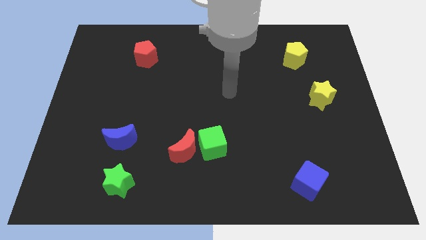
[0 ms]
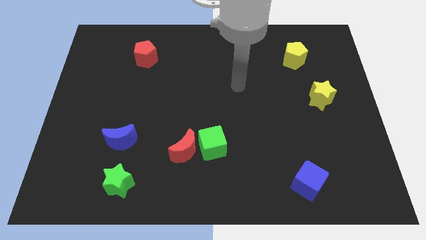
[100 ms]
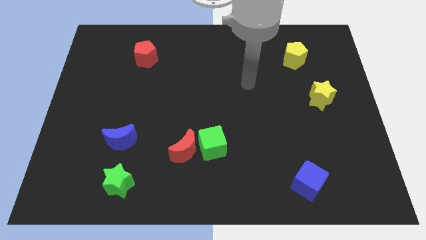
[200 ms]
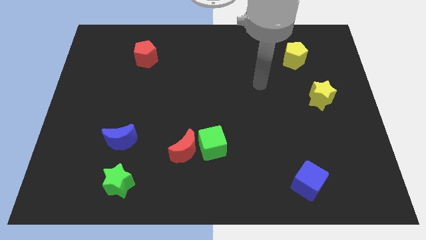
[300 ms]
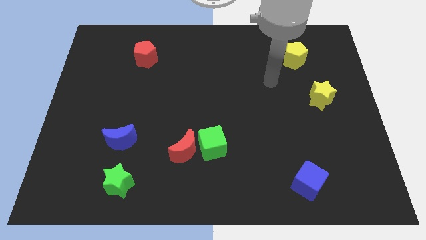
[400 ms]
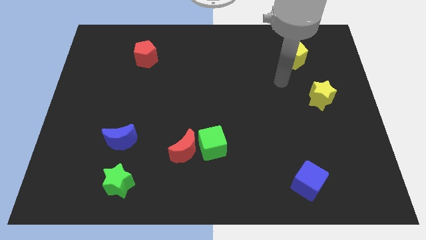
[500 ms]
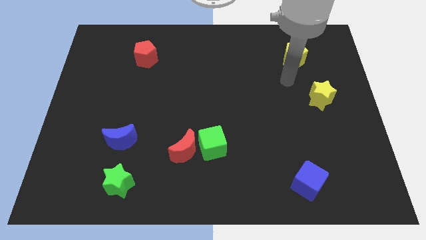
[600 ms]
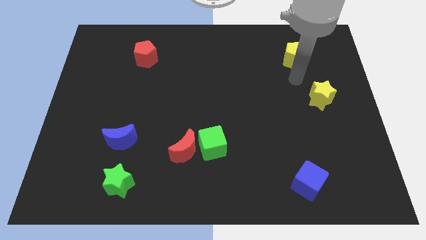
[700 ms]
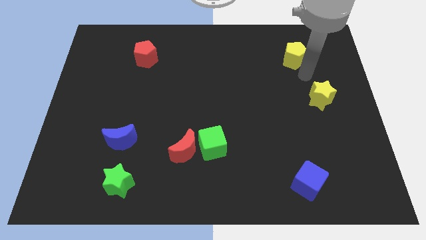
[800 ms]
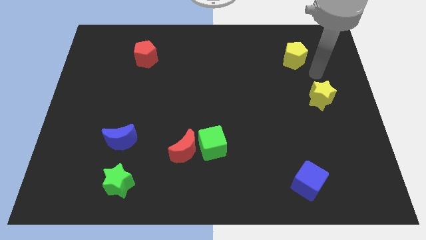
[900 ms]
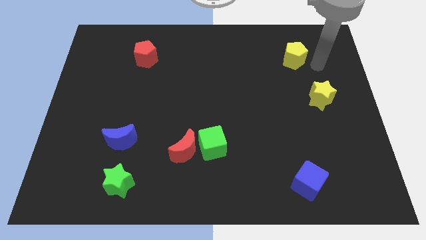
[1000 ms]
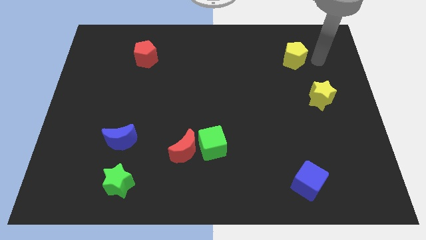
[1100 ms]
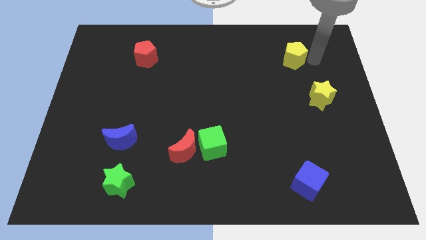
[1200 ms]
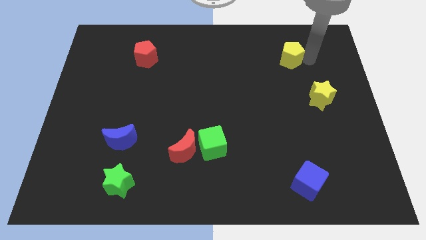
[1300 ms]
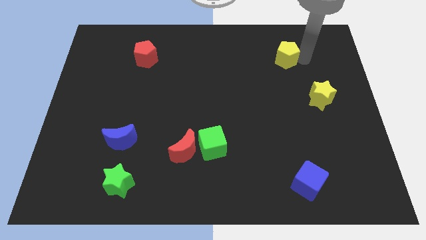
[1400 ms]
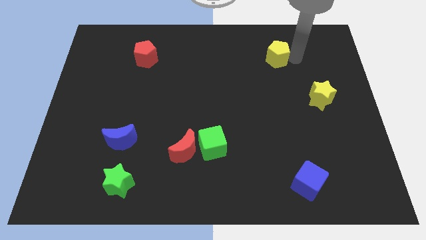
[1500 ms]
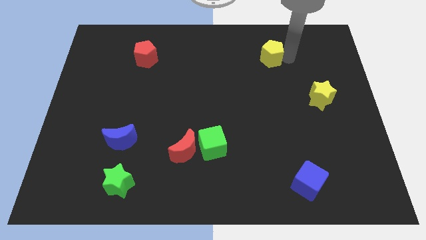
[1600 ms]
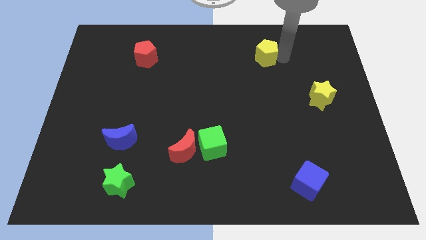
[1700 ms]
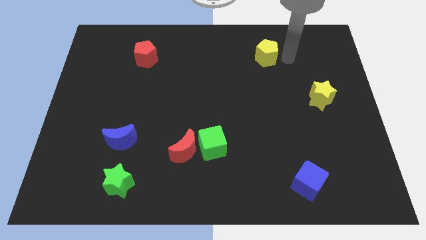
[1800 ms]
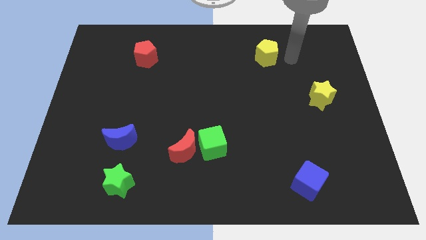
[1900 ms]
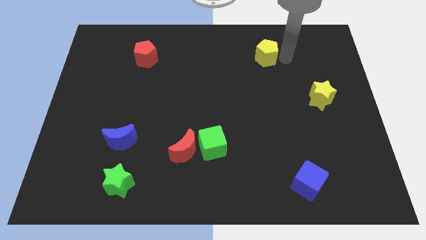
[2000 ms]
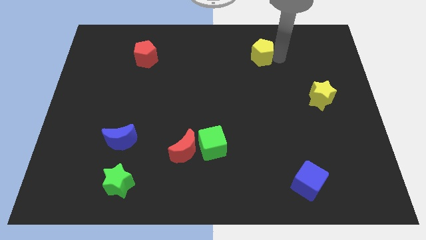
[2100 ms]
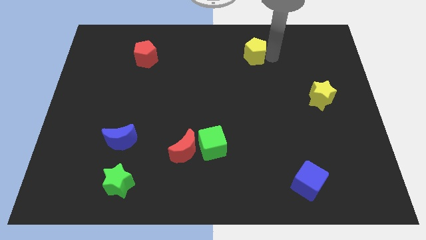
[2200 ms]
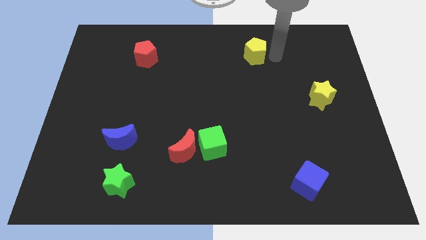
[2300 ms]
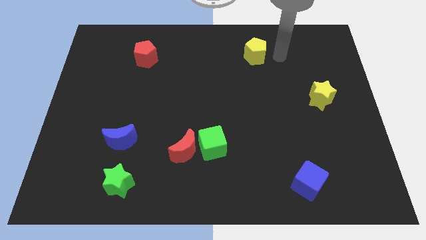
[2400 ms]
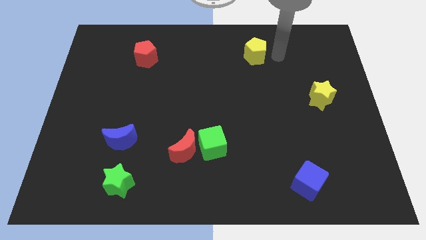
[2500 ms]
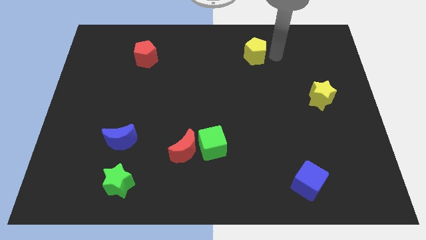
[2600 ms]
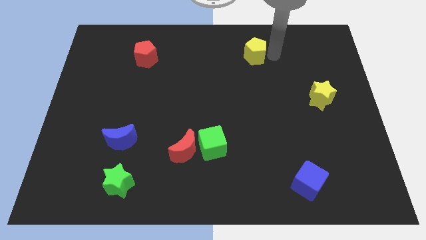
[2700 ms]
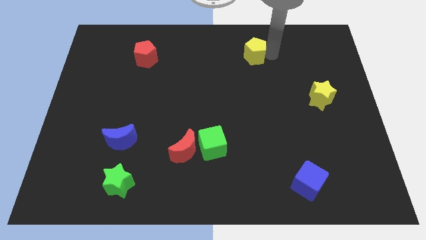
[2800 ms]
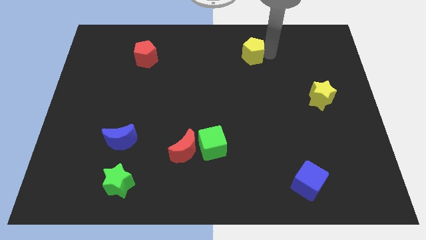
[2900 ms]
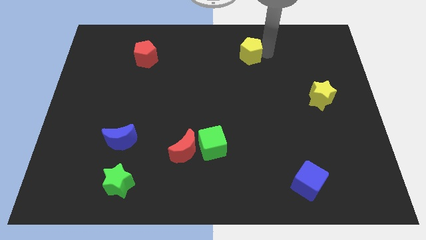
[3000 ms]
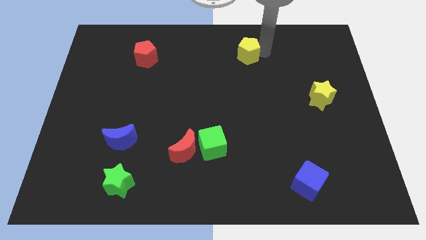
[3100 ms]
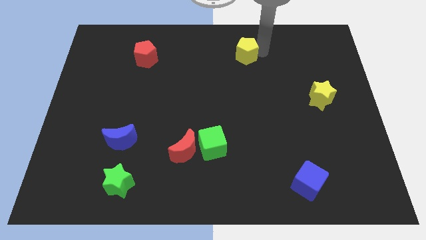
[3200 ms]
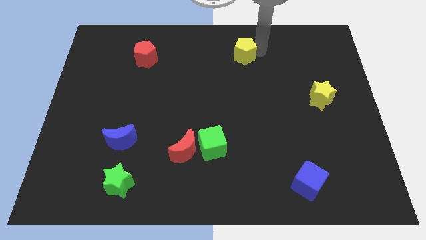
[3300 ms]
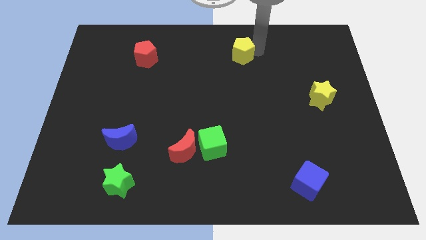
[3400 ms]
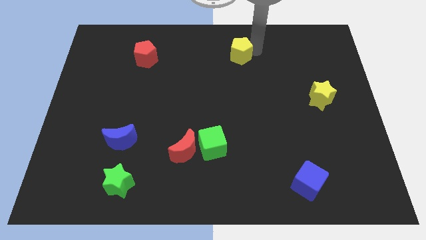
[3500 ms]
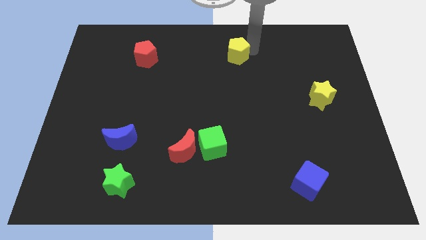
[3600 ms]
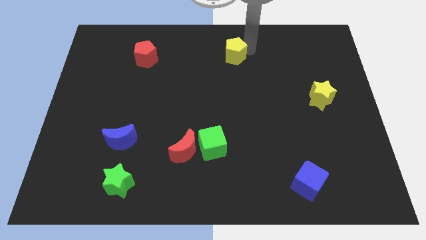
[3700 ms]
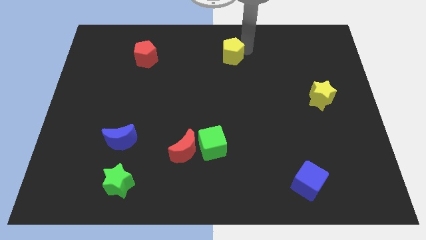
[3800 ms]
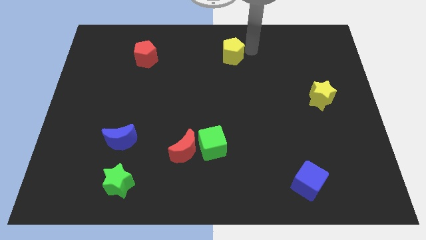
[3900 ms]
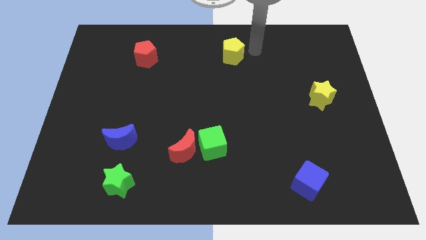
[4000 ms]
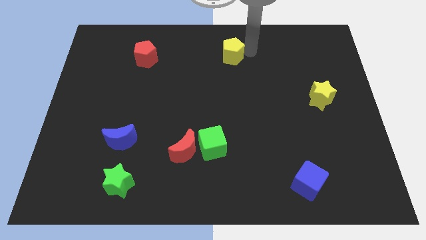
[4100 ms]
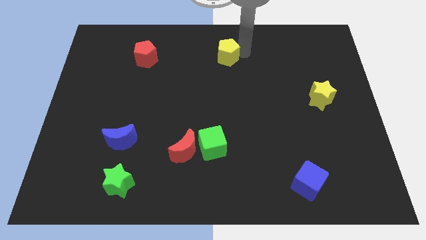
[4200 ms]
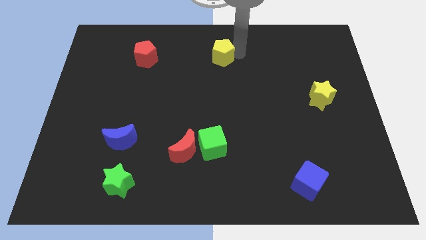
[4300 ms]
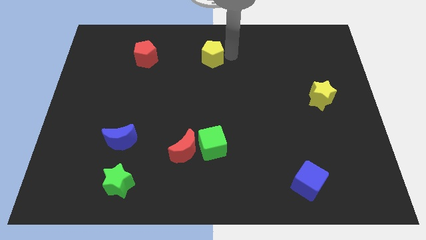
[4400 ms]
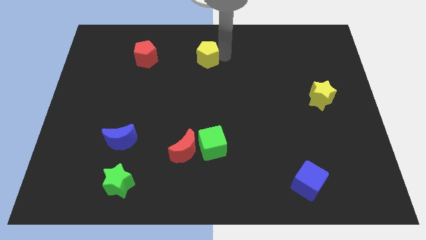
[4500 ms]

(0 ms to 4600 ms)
push the yellow pentagon just right of the red pentagon

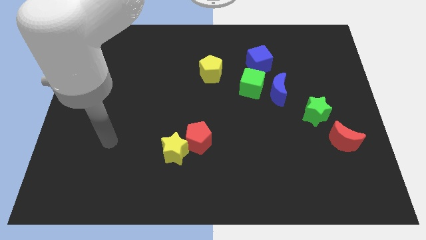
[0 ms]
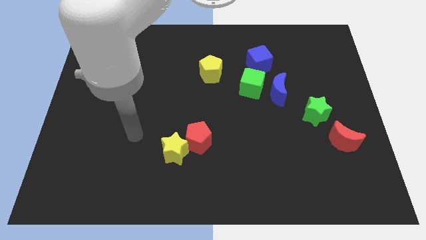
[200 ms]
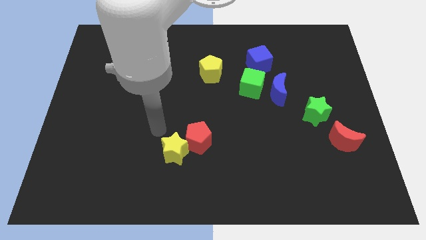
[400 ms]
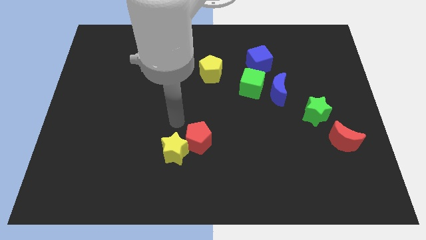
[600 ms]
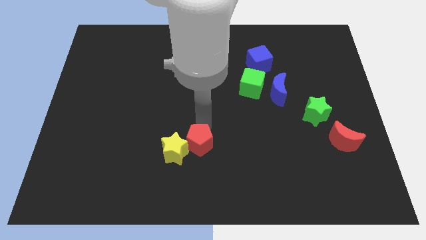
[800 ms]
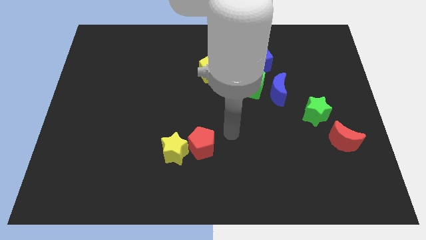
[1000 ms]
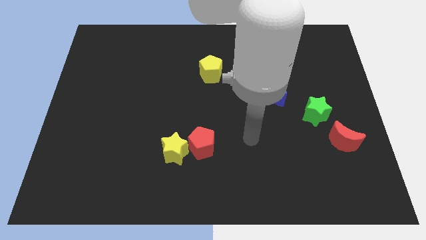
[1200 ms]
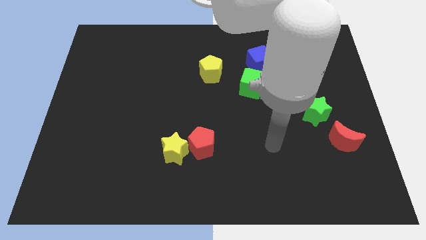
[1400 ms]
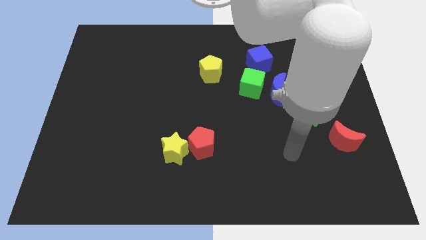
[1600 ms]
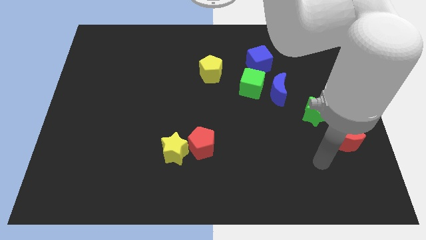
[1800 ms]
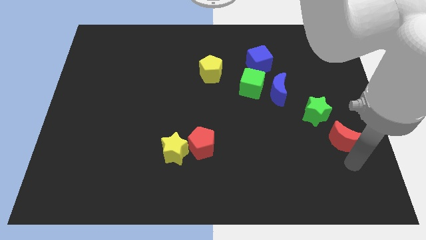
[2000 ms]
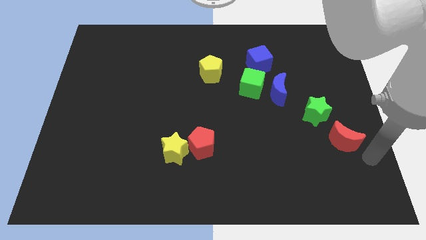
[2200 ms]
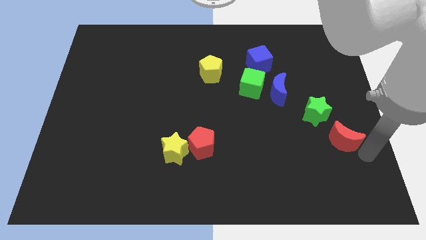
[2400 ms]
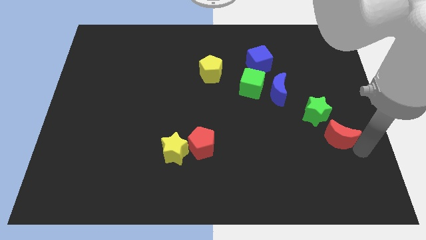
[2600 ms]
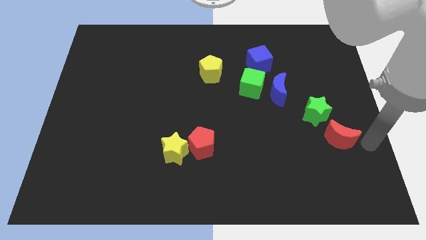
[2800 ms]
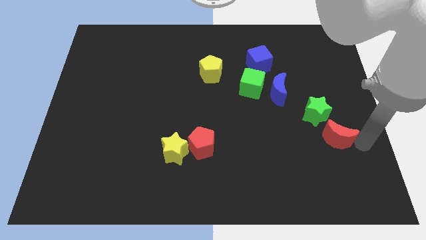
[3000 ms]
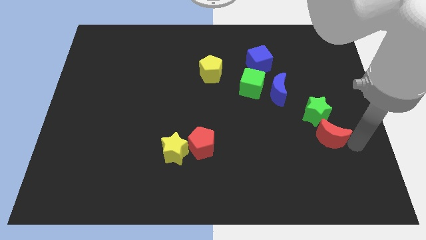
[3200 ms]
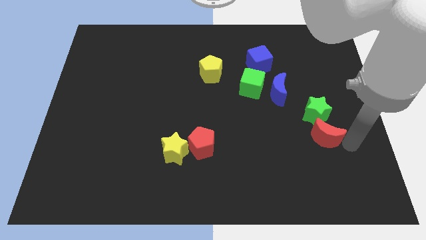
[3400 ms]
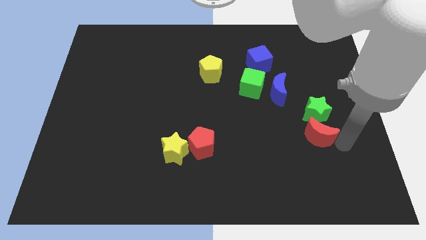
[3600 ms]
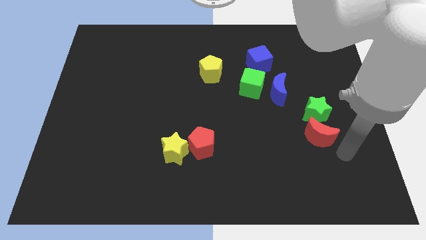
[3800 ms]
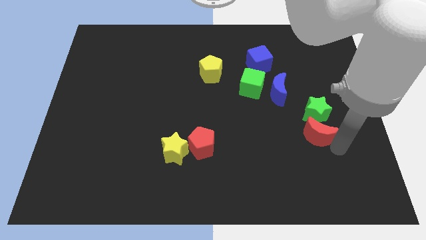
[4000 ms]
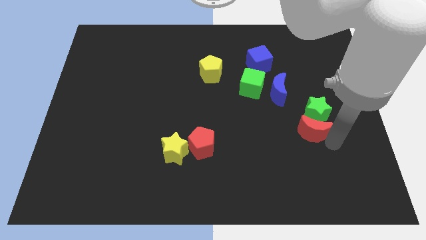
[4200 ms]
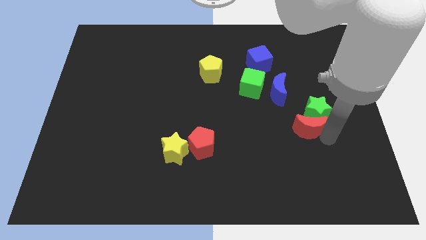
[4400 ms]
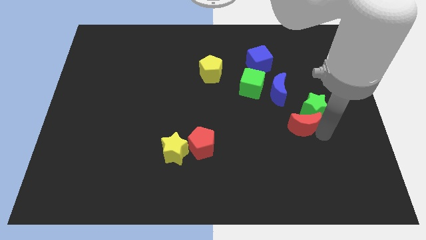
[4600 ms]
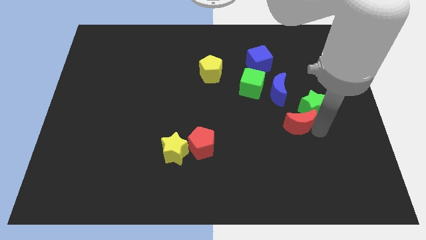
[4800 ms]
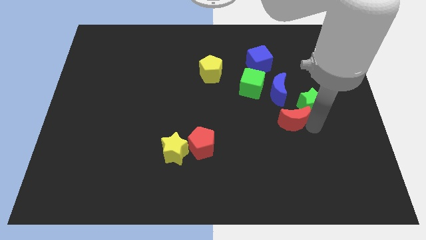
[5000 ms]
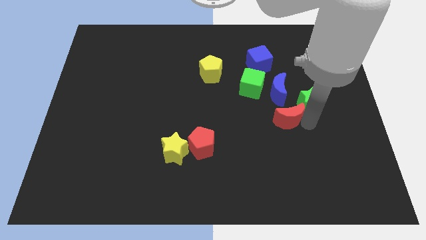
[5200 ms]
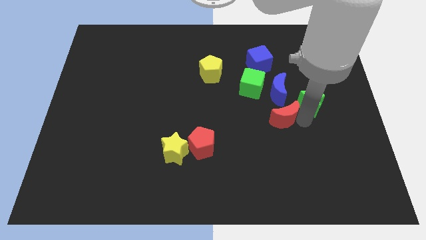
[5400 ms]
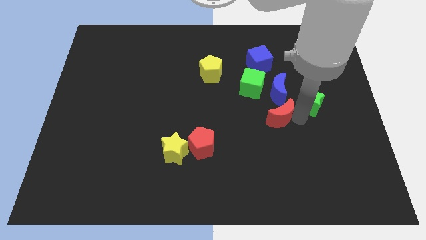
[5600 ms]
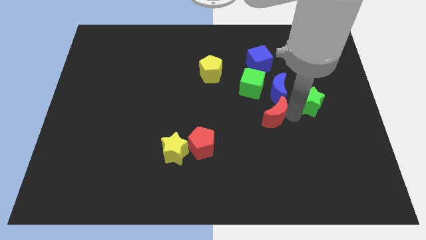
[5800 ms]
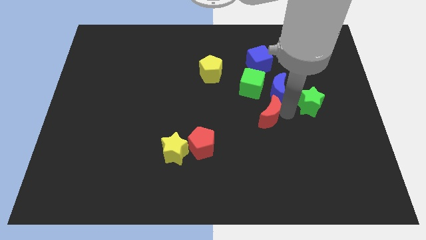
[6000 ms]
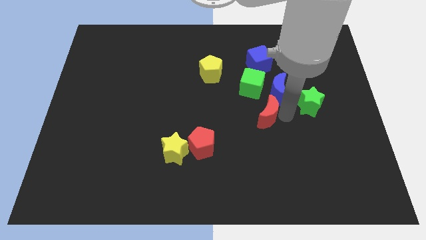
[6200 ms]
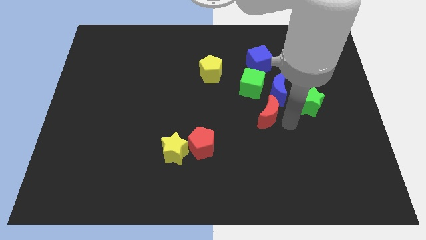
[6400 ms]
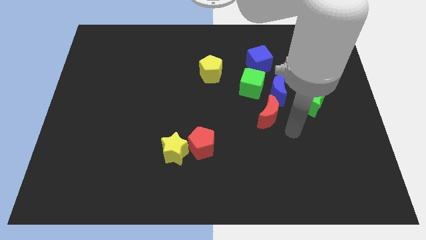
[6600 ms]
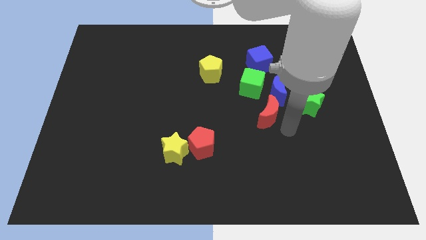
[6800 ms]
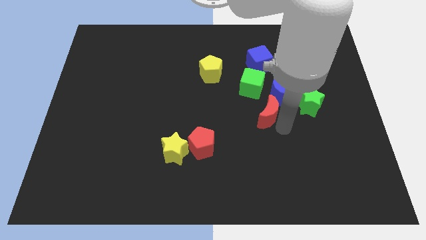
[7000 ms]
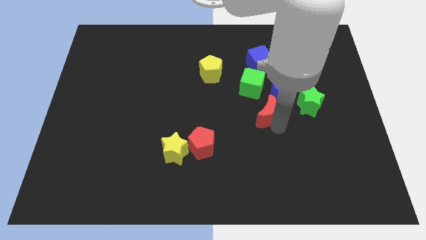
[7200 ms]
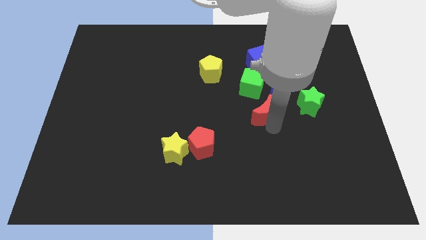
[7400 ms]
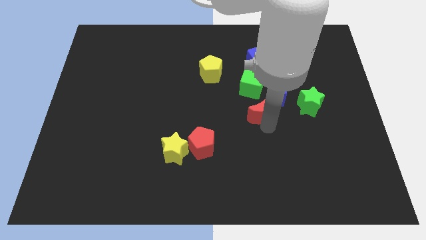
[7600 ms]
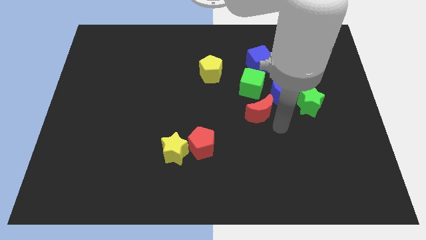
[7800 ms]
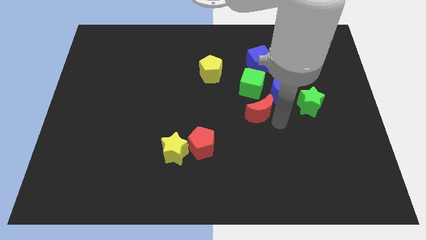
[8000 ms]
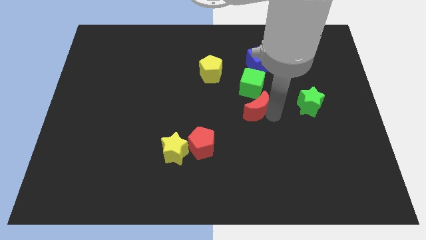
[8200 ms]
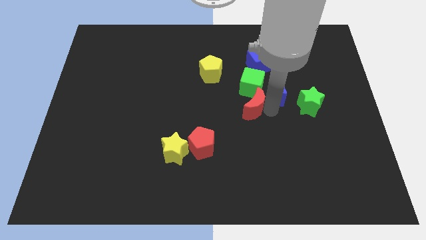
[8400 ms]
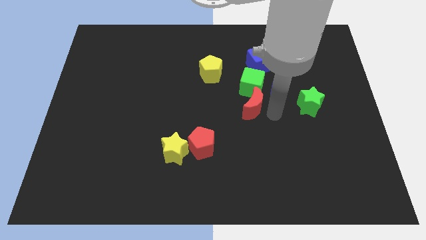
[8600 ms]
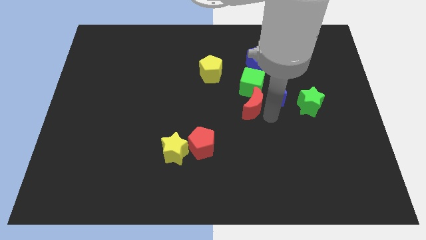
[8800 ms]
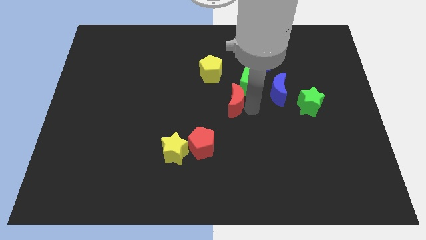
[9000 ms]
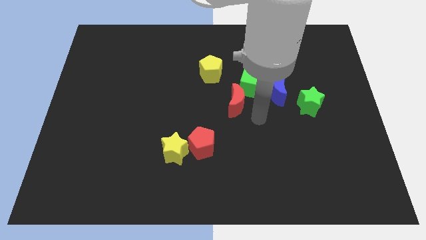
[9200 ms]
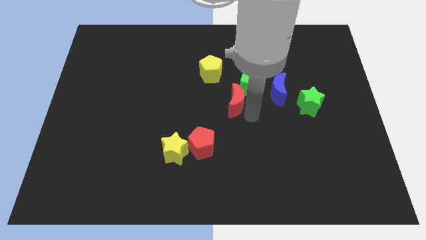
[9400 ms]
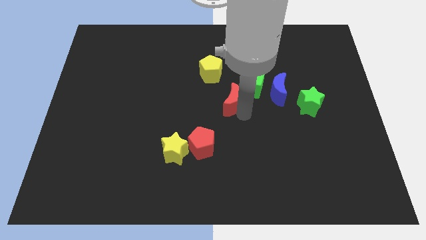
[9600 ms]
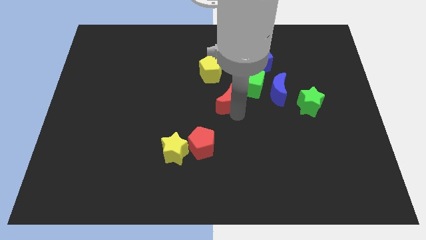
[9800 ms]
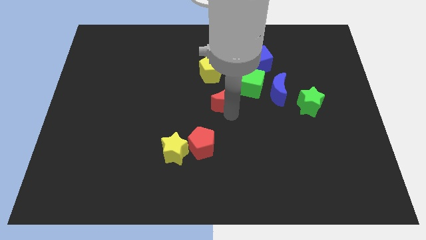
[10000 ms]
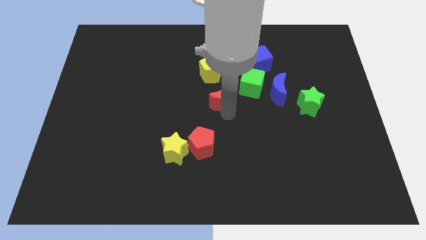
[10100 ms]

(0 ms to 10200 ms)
push the red moon just left of the green cube
